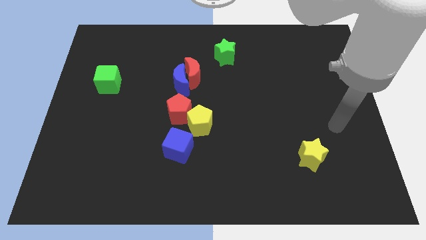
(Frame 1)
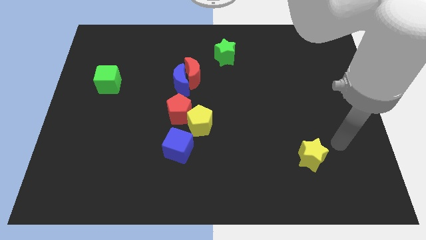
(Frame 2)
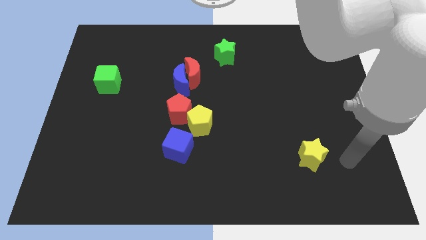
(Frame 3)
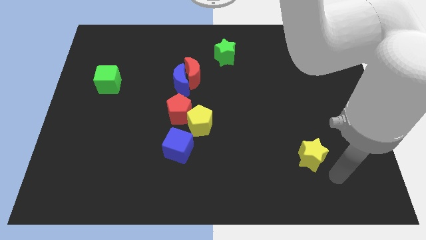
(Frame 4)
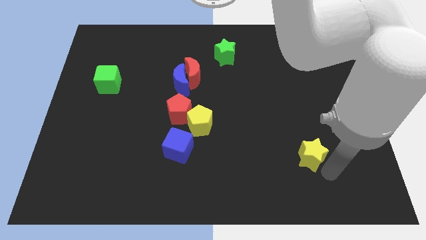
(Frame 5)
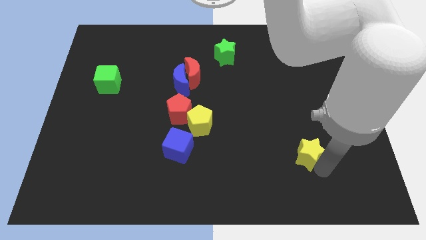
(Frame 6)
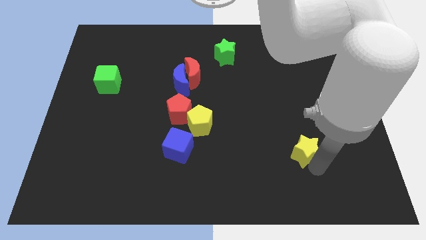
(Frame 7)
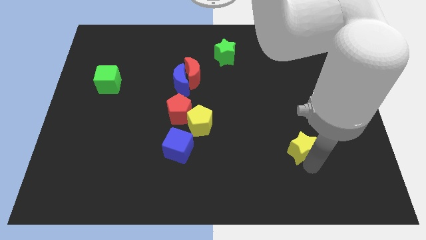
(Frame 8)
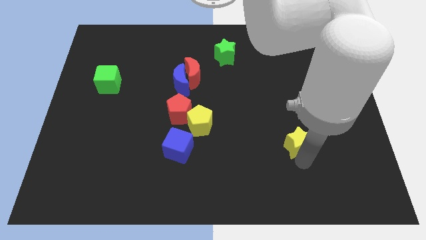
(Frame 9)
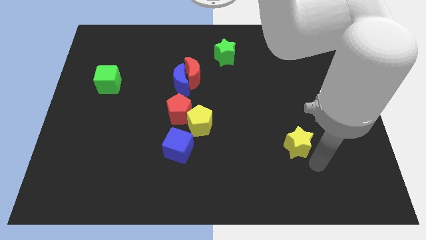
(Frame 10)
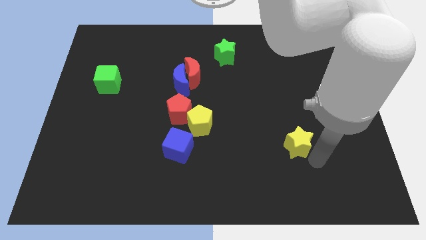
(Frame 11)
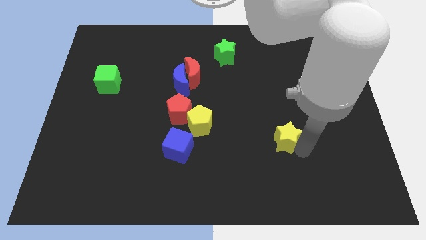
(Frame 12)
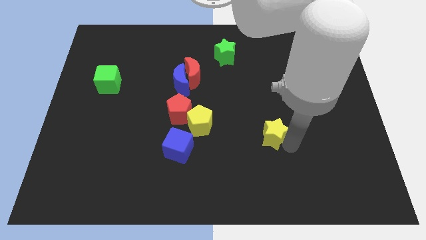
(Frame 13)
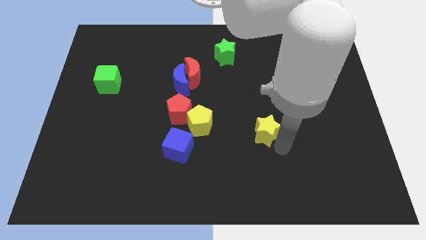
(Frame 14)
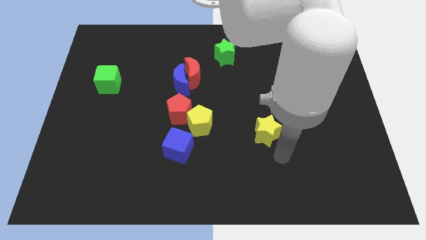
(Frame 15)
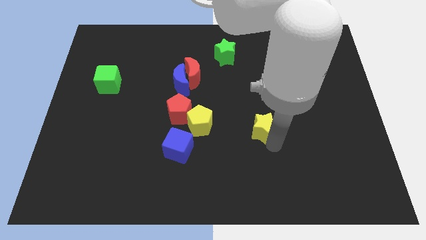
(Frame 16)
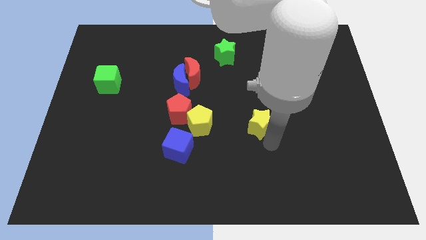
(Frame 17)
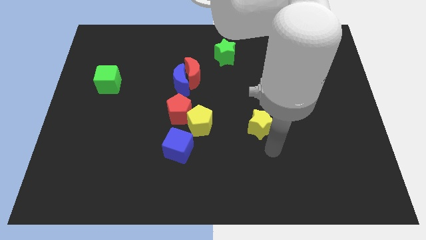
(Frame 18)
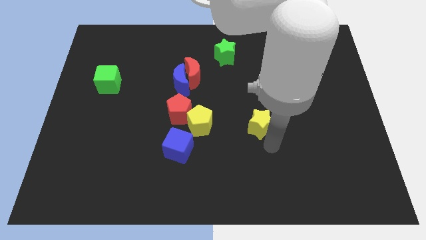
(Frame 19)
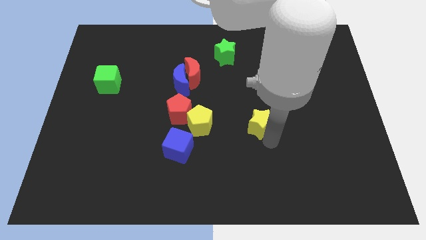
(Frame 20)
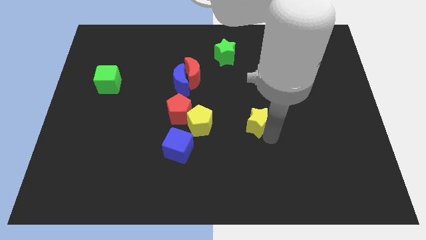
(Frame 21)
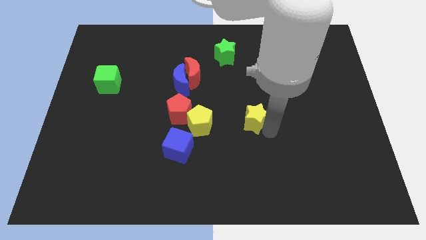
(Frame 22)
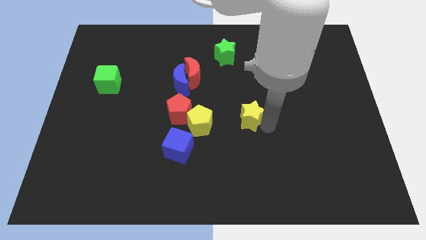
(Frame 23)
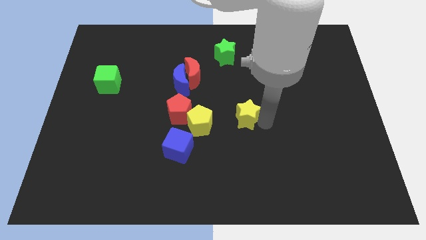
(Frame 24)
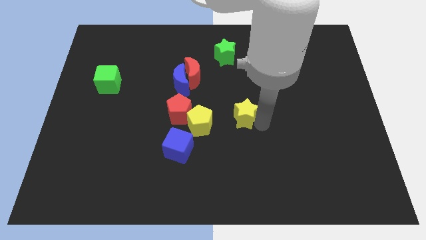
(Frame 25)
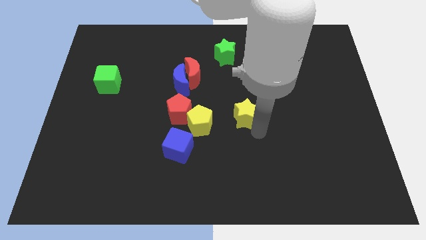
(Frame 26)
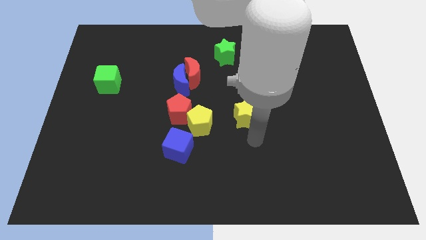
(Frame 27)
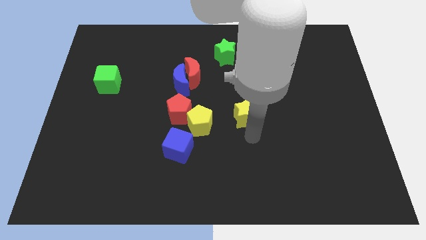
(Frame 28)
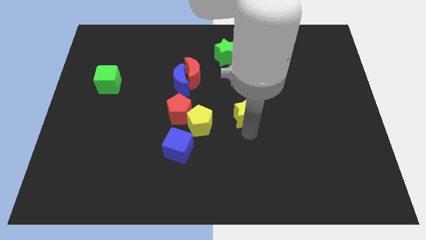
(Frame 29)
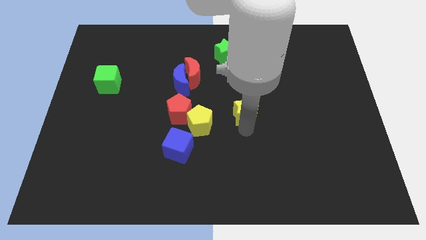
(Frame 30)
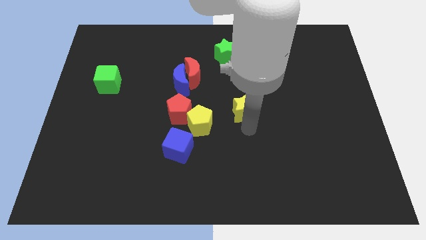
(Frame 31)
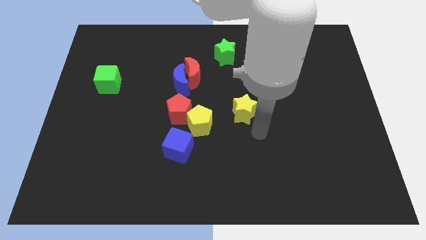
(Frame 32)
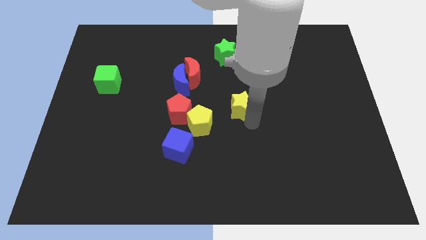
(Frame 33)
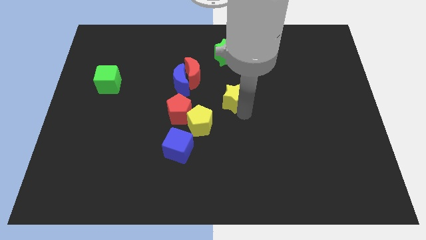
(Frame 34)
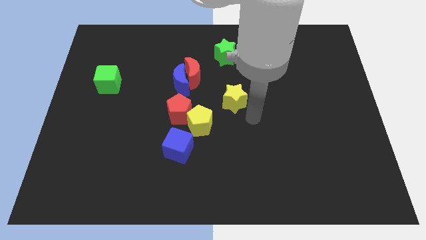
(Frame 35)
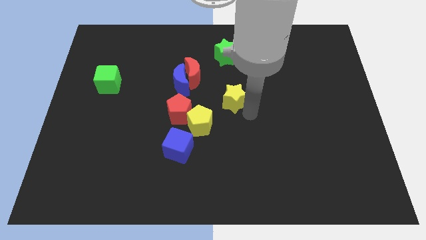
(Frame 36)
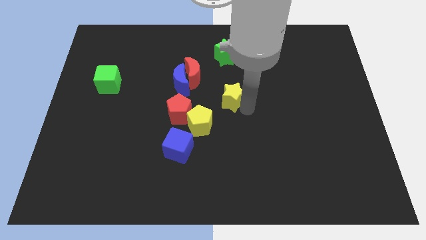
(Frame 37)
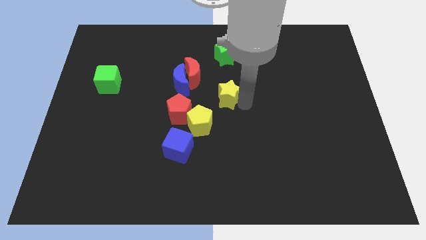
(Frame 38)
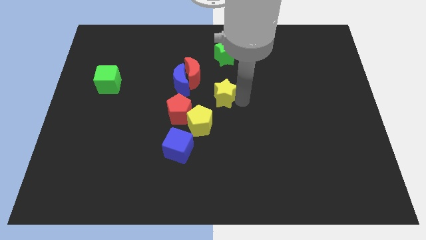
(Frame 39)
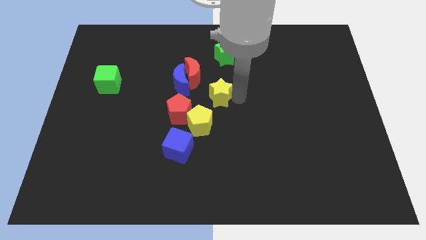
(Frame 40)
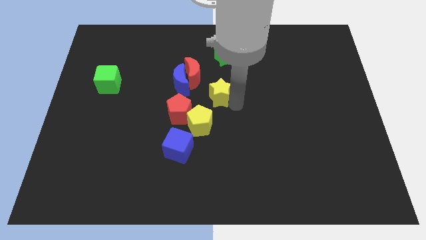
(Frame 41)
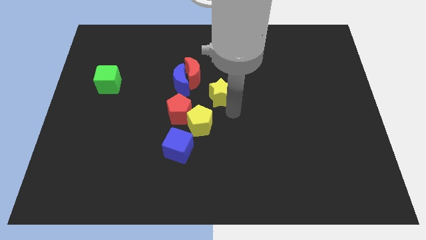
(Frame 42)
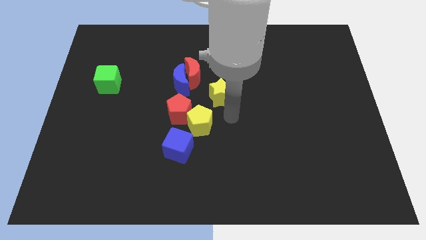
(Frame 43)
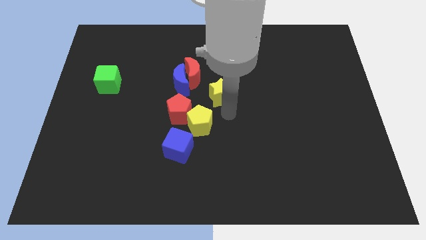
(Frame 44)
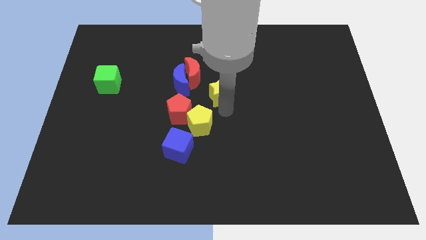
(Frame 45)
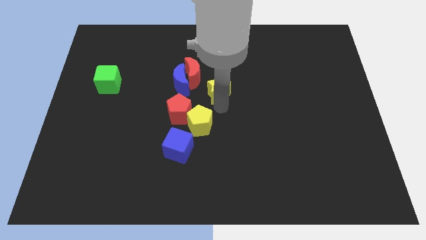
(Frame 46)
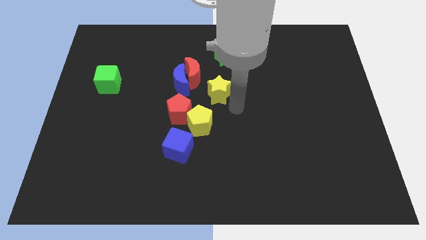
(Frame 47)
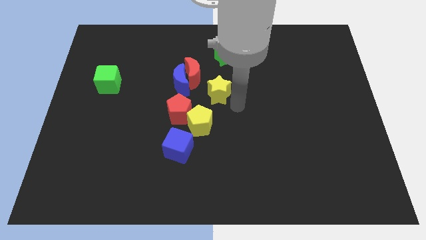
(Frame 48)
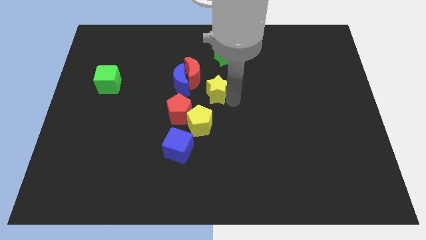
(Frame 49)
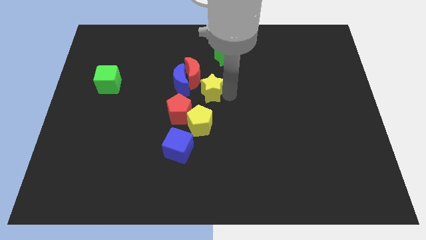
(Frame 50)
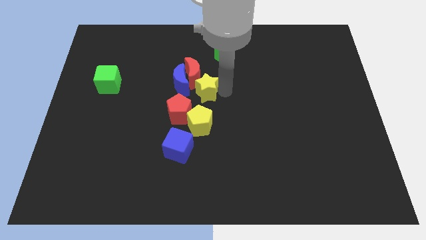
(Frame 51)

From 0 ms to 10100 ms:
push the yellow star close to the red moon

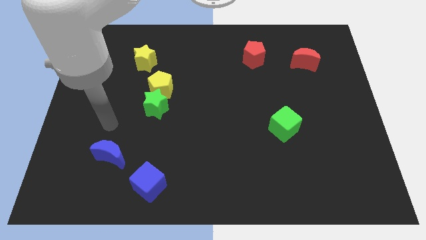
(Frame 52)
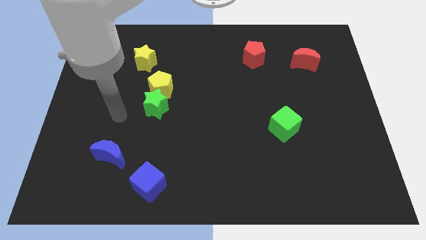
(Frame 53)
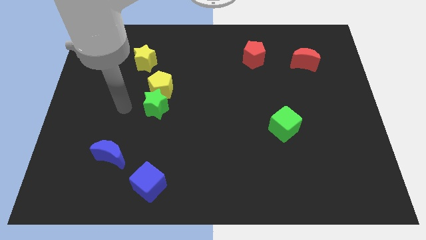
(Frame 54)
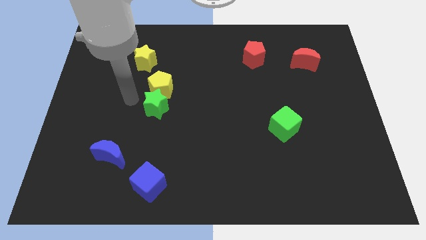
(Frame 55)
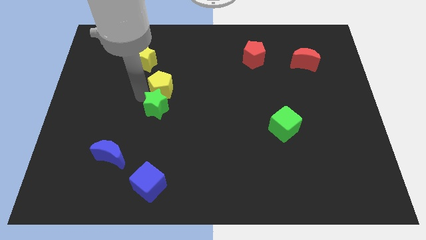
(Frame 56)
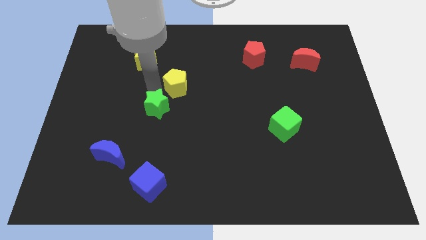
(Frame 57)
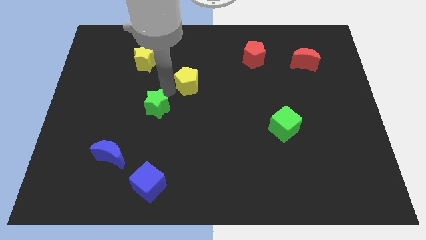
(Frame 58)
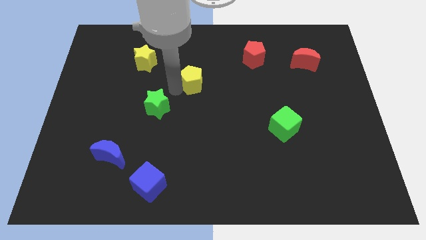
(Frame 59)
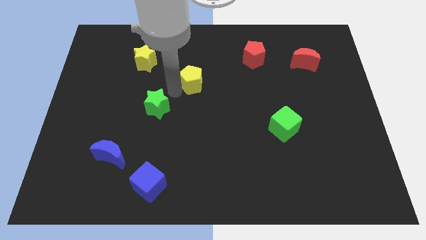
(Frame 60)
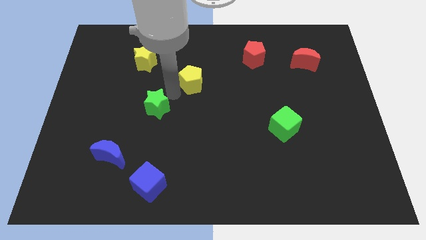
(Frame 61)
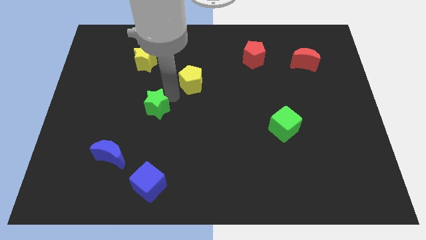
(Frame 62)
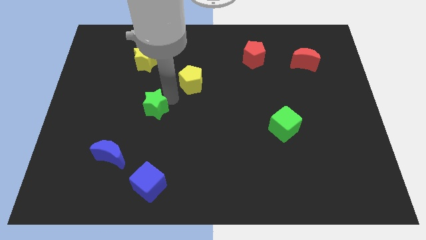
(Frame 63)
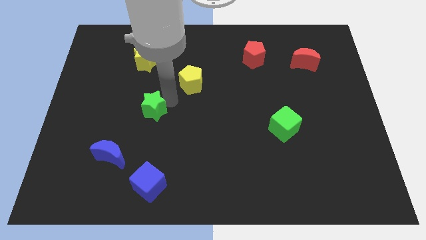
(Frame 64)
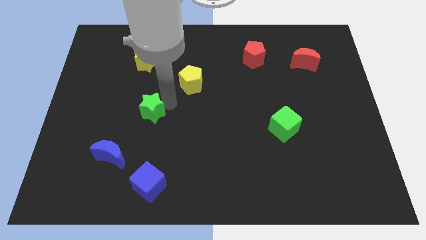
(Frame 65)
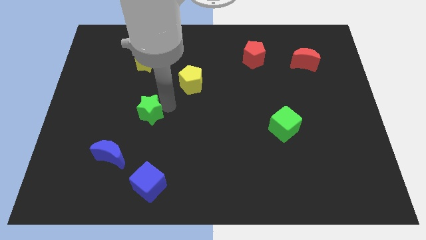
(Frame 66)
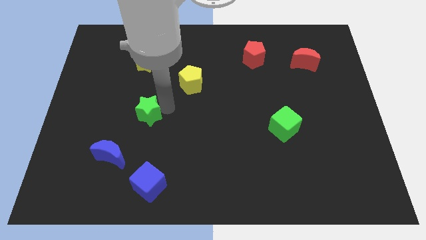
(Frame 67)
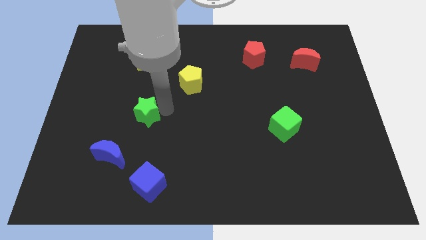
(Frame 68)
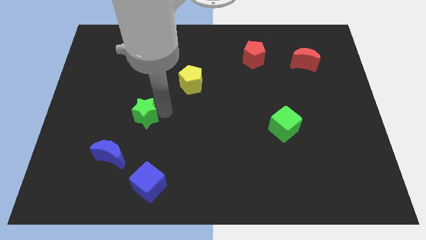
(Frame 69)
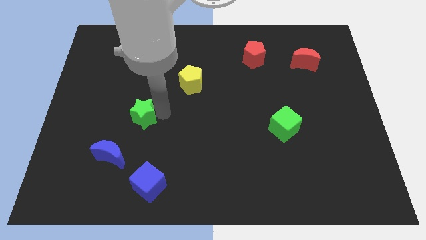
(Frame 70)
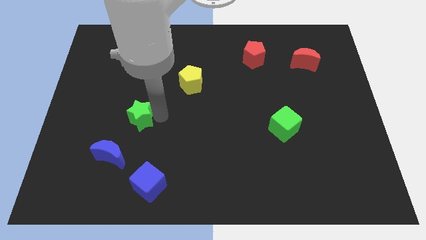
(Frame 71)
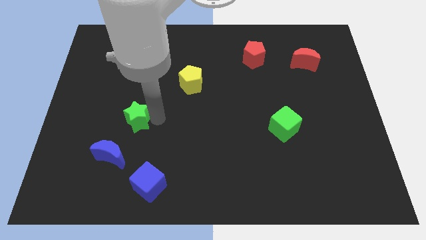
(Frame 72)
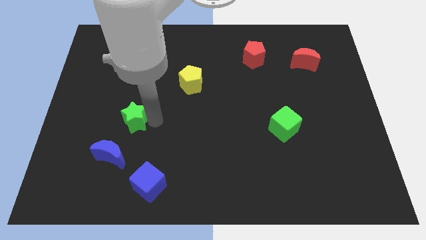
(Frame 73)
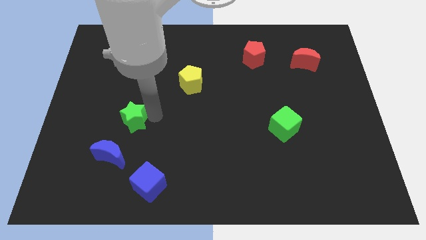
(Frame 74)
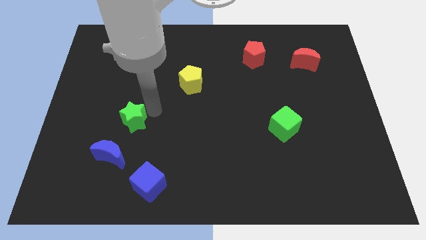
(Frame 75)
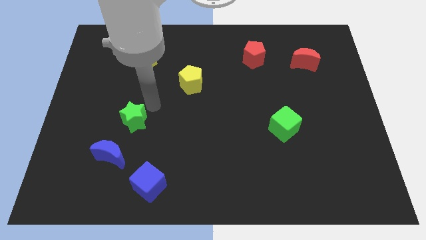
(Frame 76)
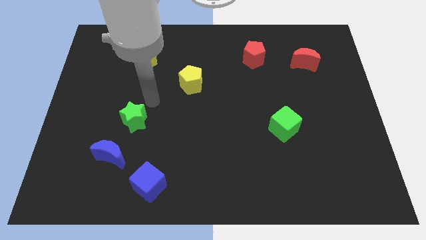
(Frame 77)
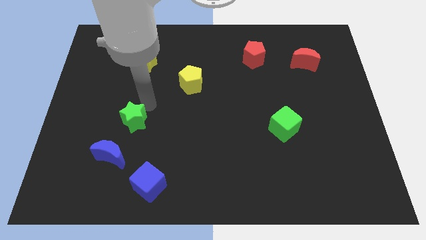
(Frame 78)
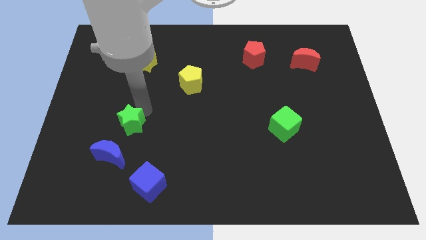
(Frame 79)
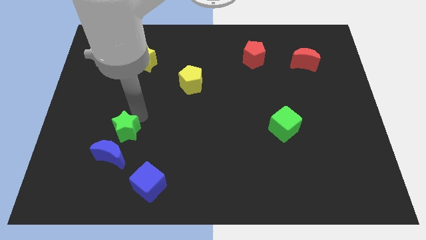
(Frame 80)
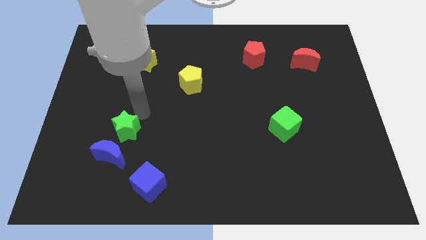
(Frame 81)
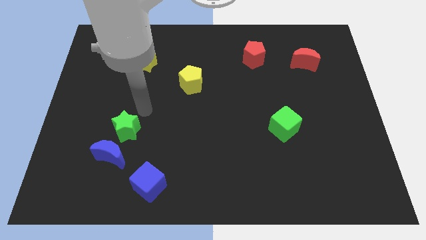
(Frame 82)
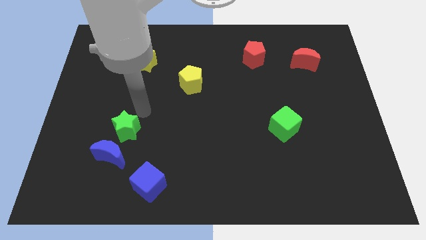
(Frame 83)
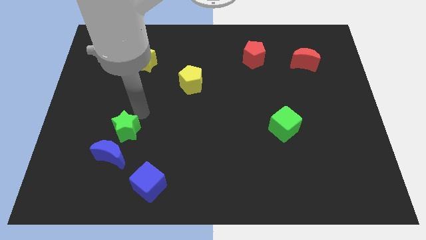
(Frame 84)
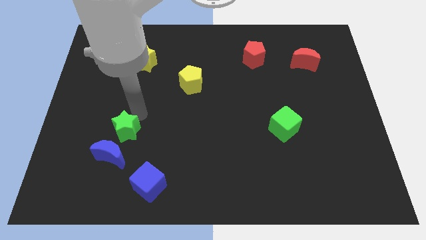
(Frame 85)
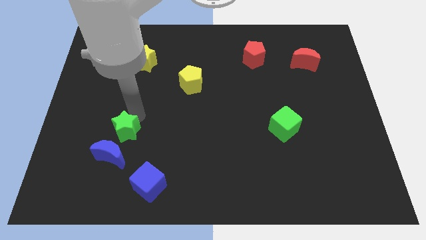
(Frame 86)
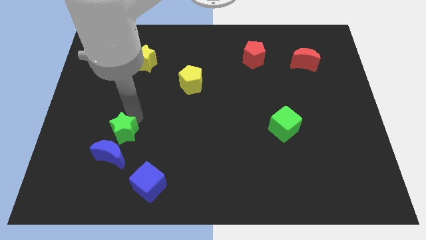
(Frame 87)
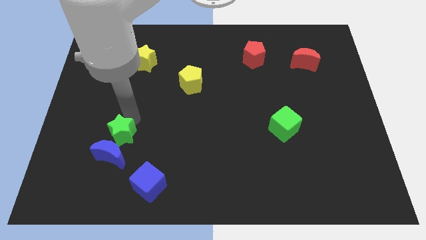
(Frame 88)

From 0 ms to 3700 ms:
move the green star close to the blue moon
